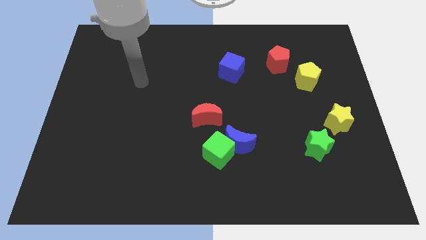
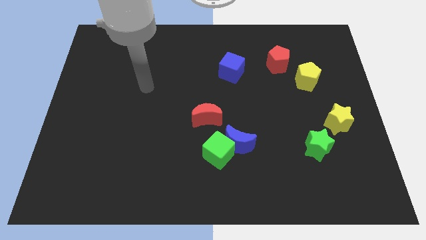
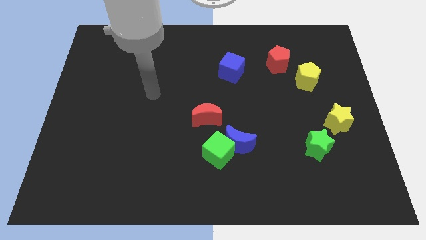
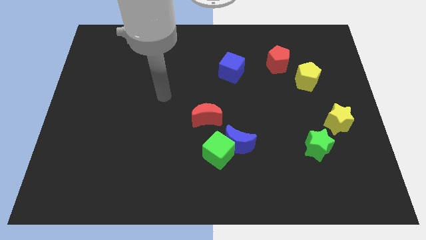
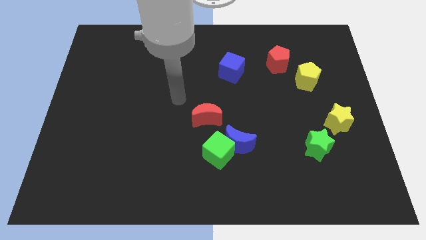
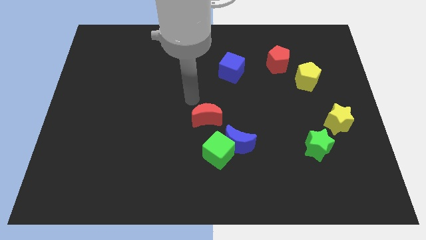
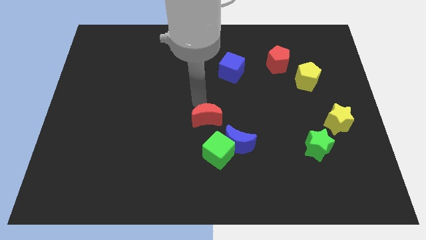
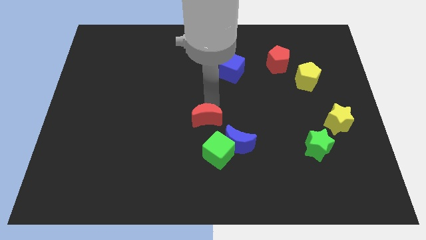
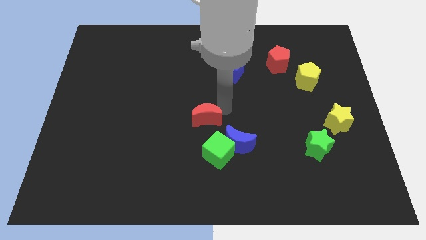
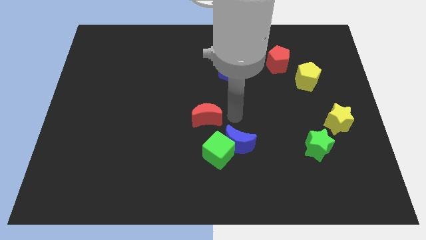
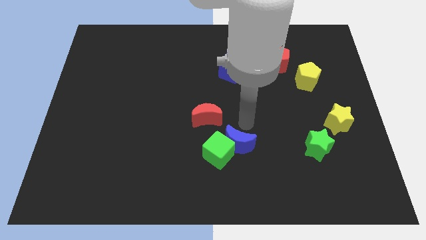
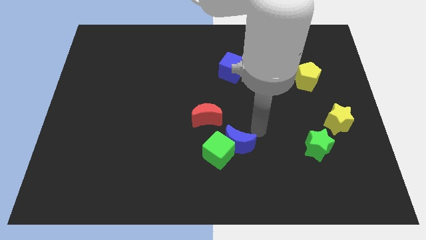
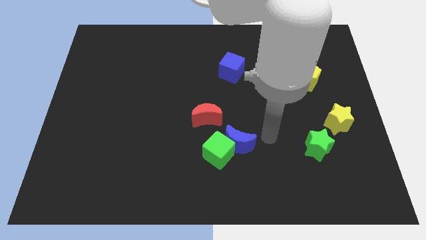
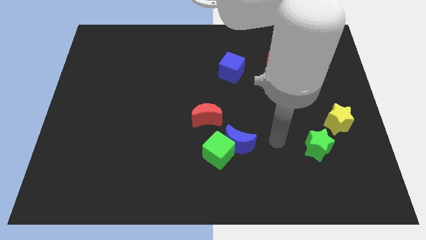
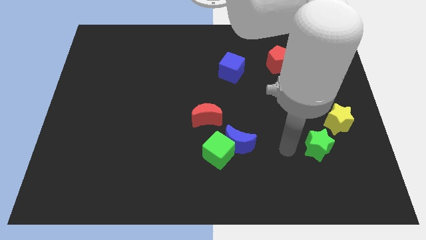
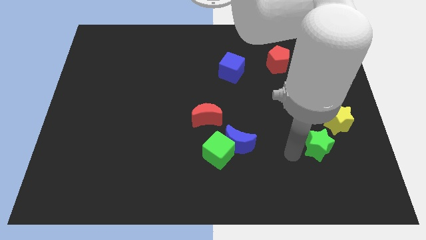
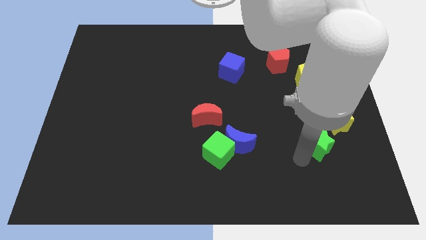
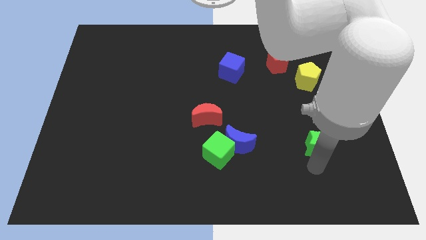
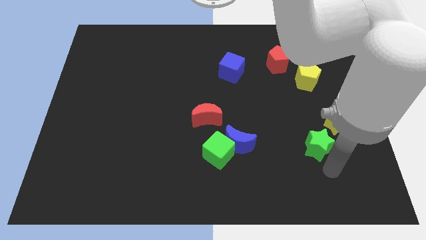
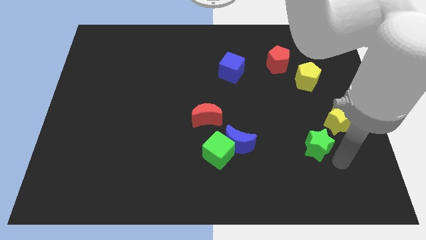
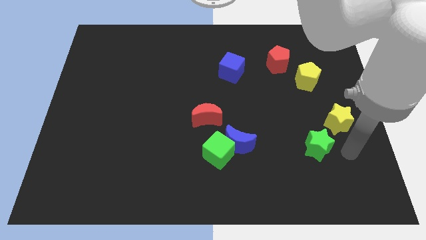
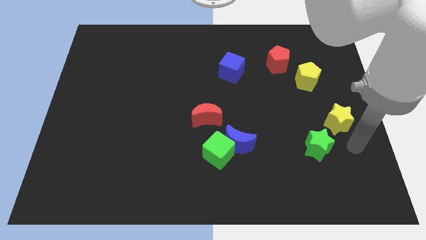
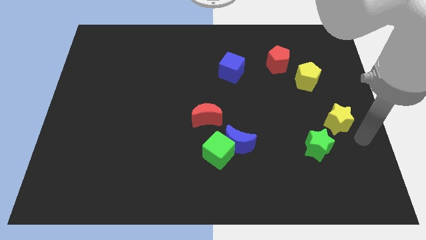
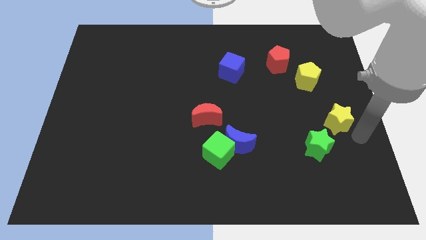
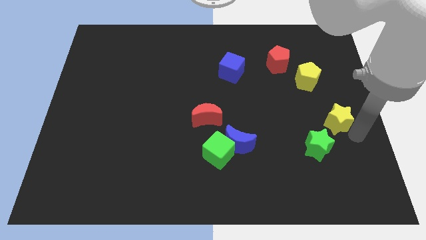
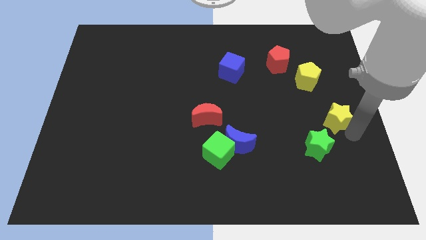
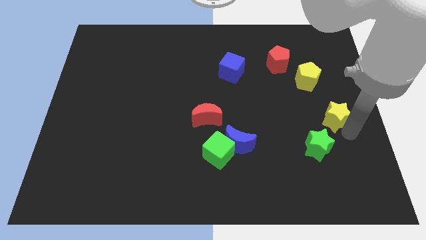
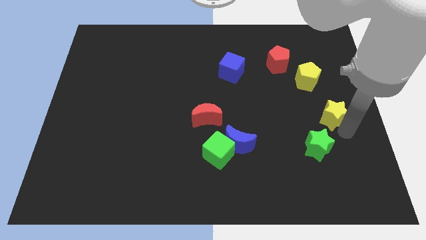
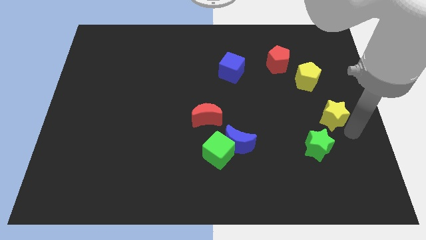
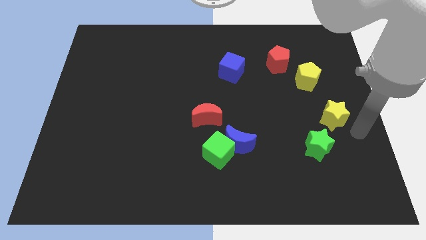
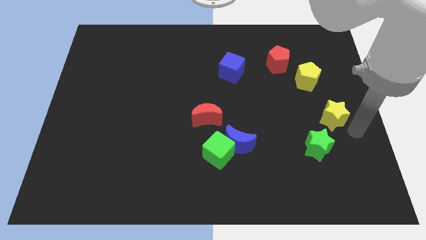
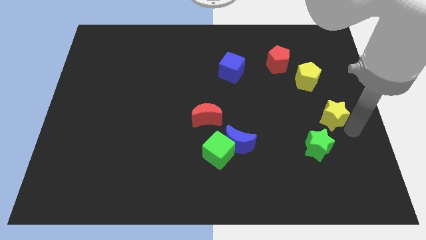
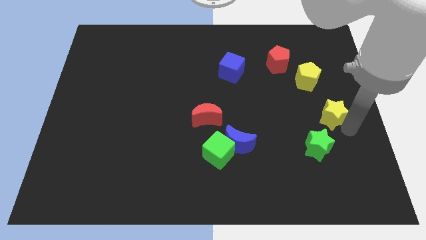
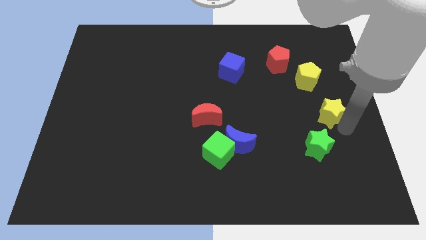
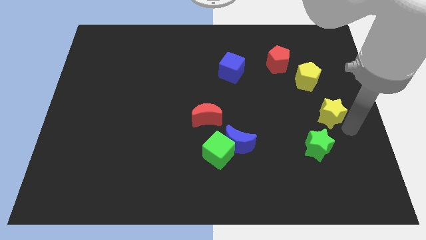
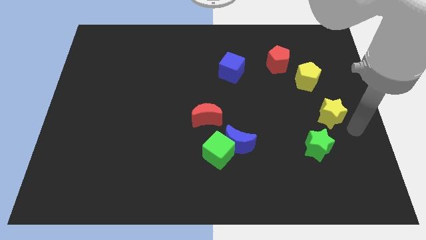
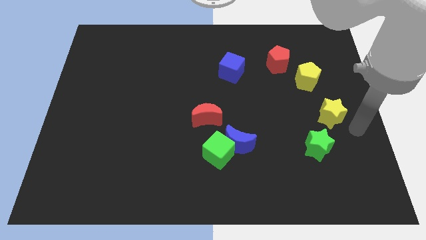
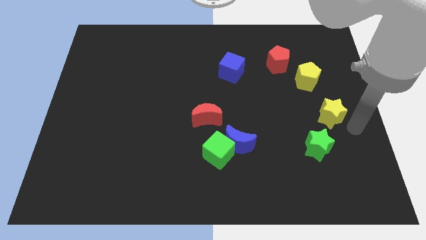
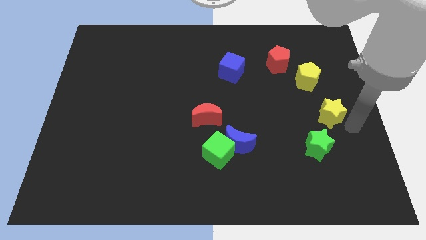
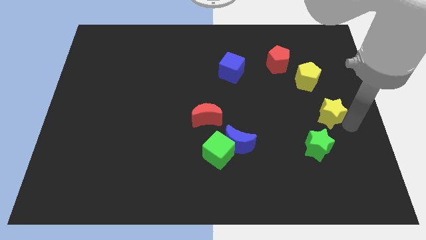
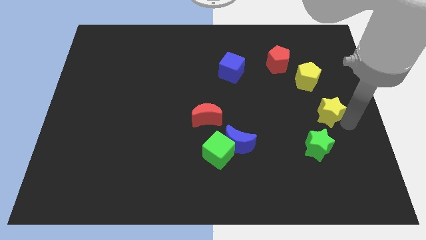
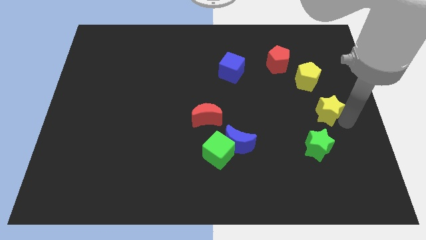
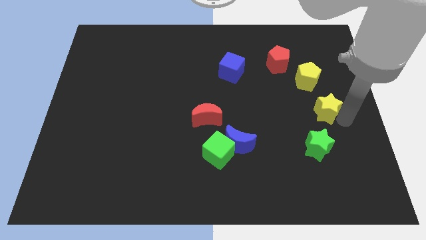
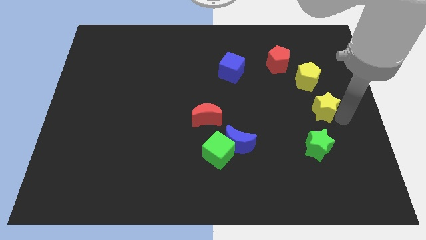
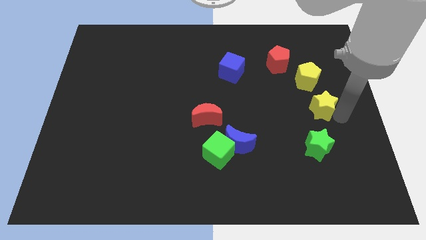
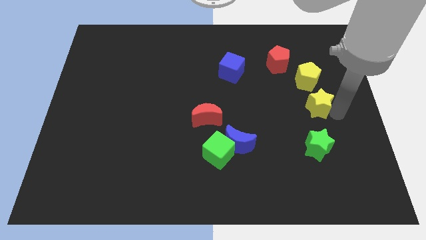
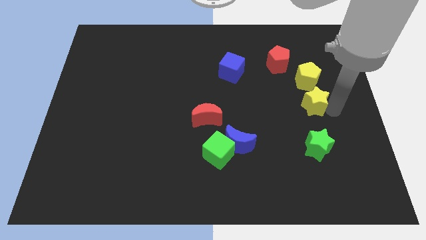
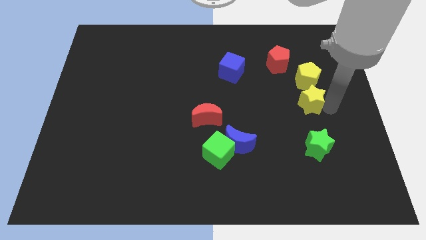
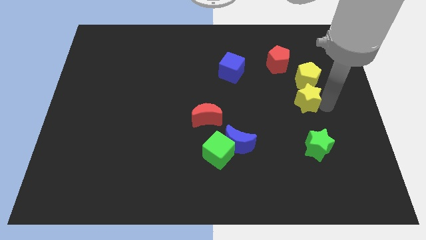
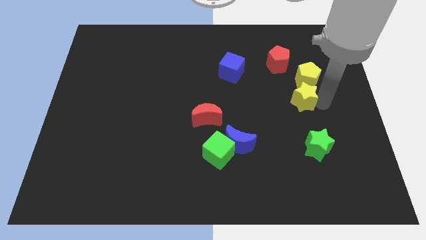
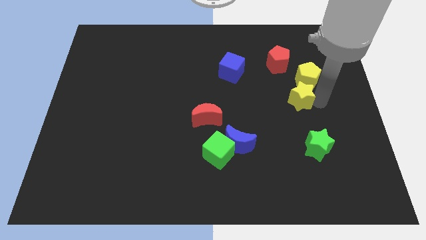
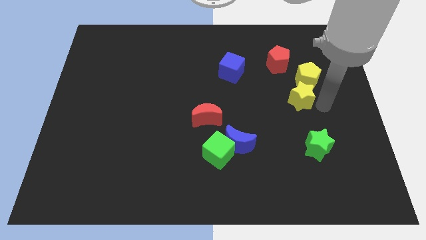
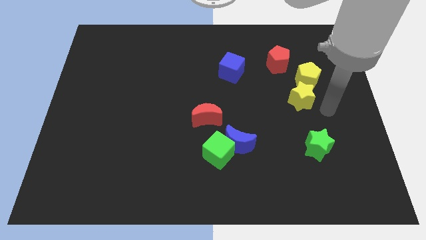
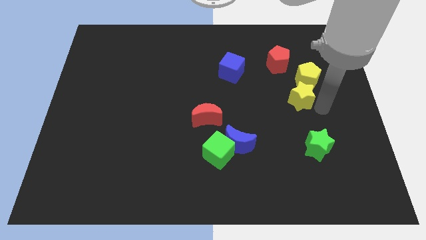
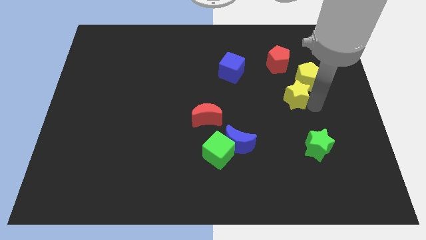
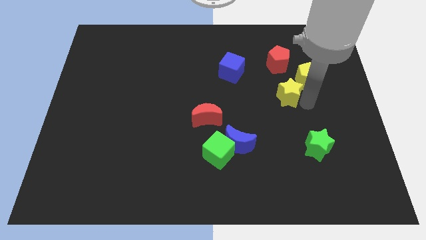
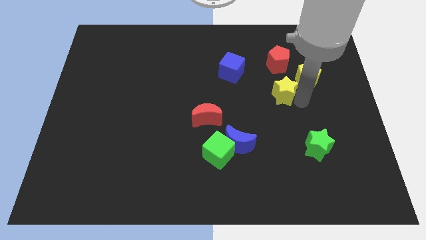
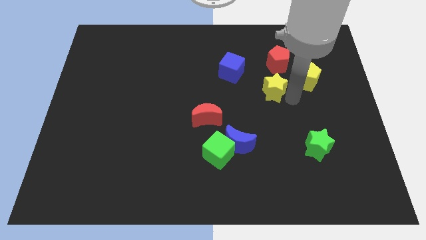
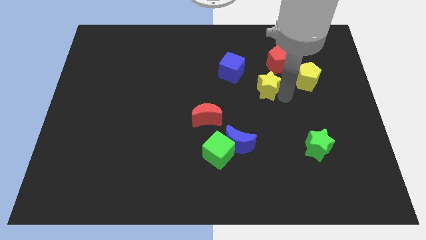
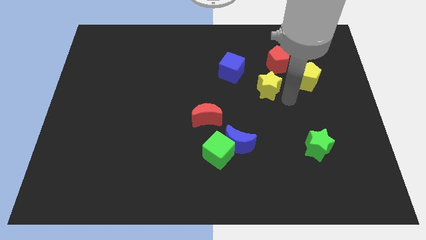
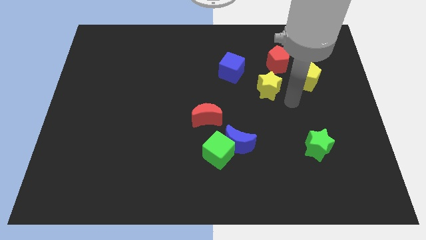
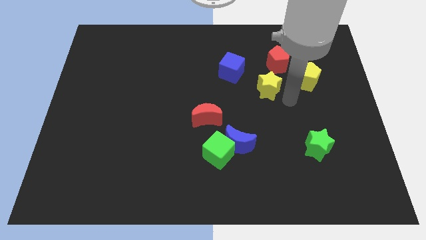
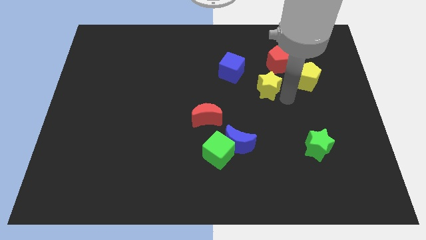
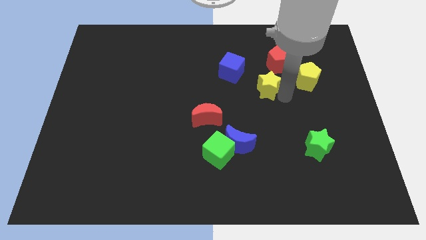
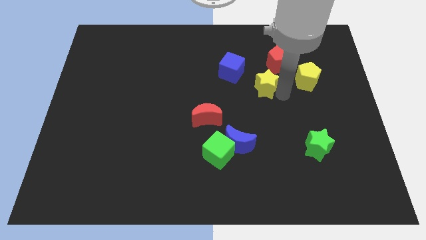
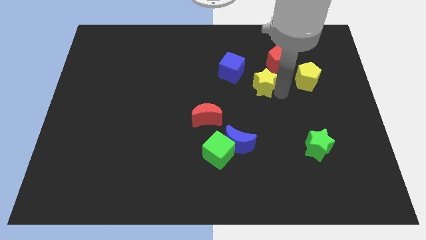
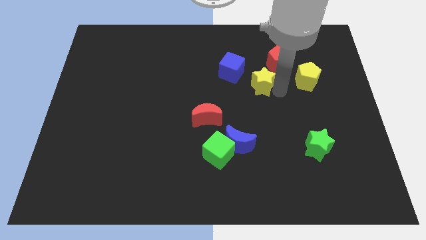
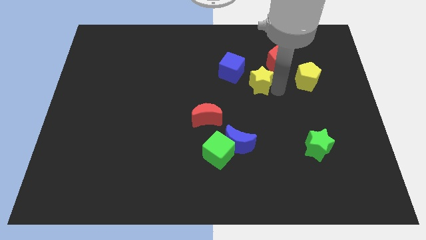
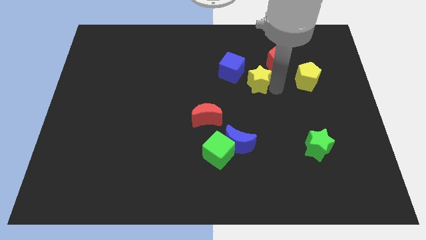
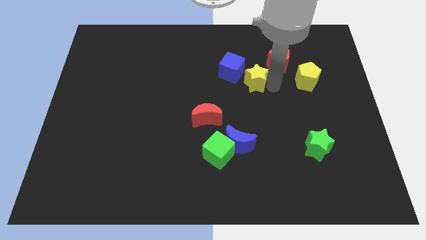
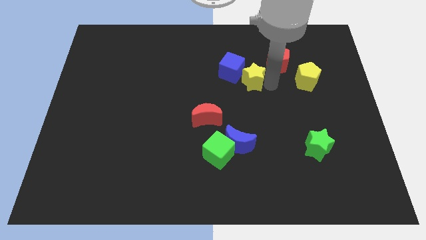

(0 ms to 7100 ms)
push the yellow star close to the blue cube
